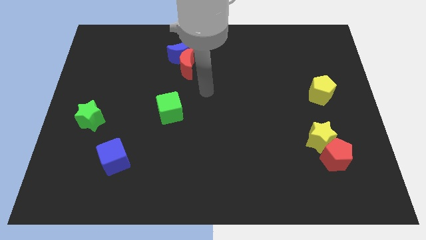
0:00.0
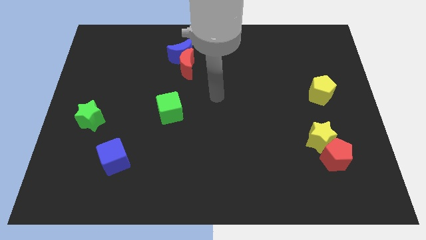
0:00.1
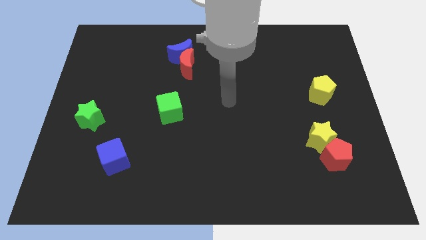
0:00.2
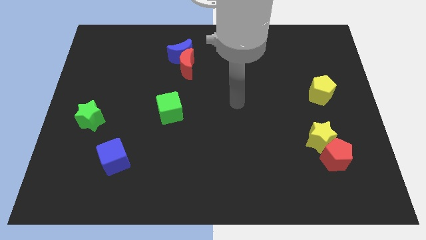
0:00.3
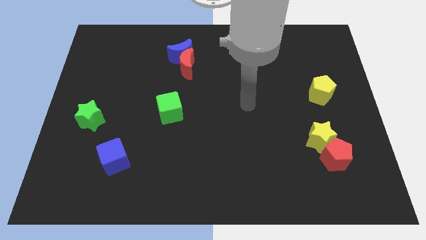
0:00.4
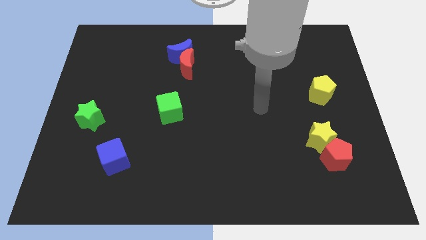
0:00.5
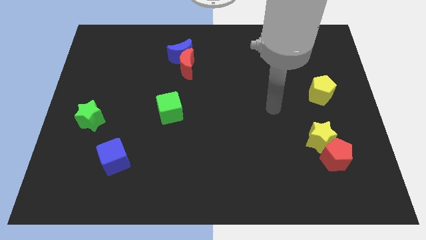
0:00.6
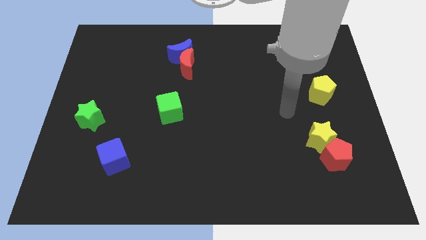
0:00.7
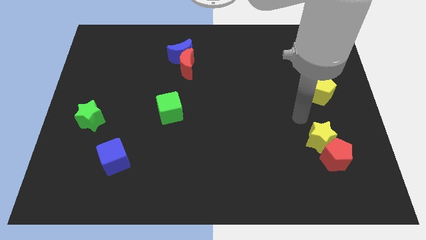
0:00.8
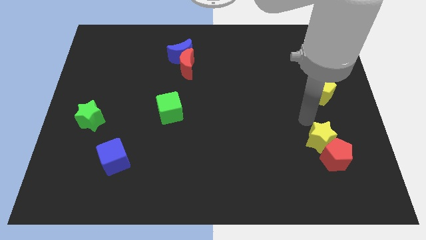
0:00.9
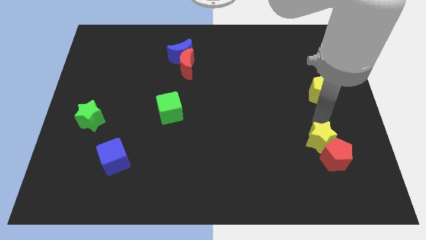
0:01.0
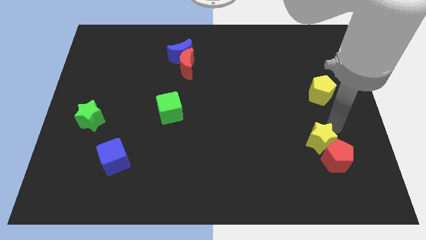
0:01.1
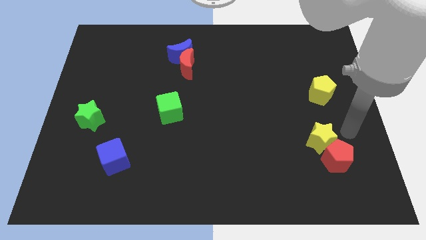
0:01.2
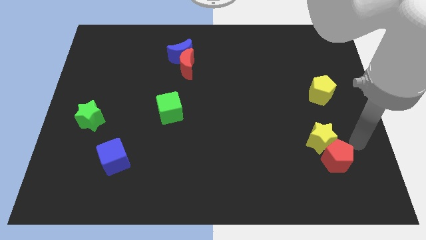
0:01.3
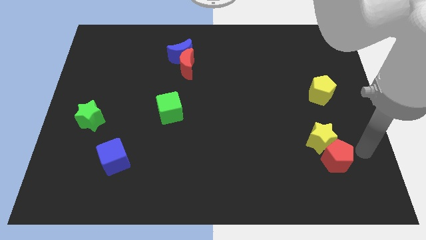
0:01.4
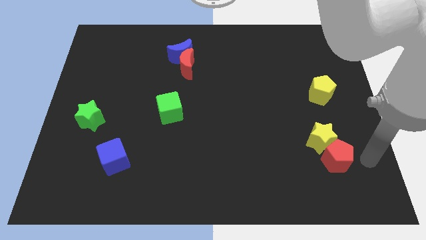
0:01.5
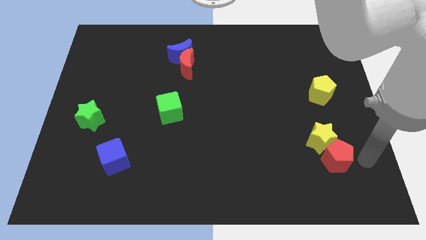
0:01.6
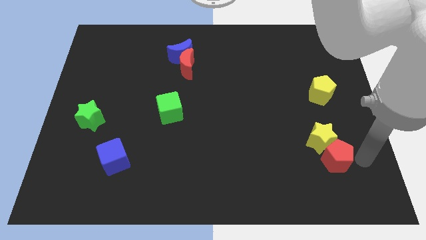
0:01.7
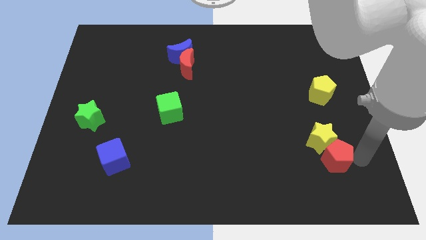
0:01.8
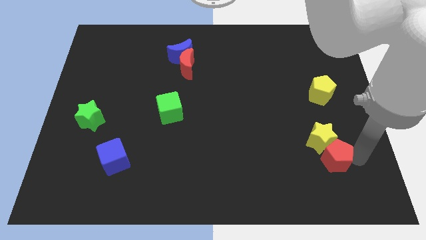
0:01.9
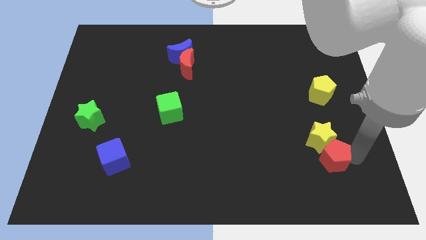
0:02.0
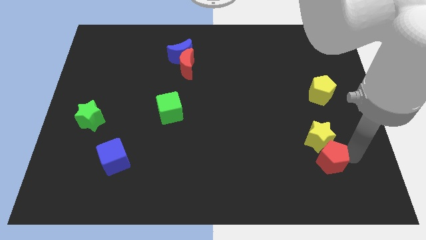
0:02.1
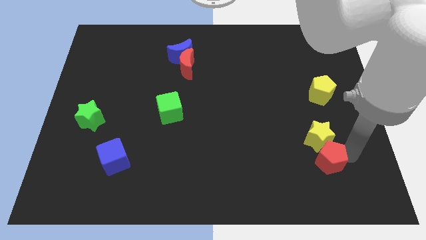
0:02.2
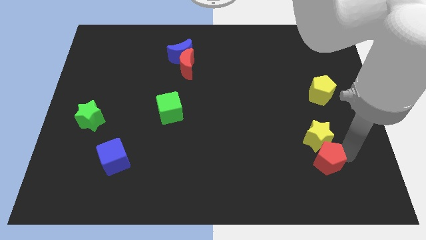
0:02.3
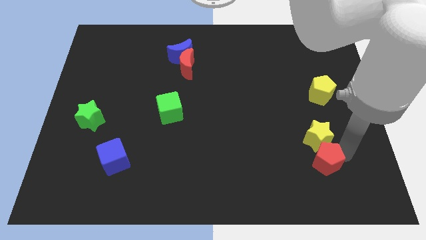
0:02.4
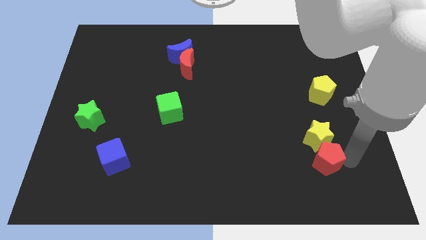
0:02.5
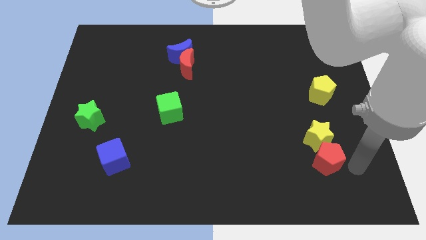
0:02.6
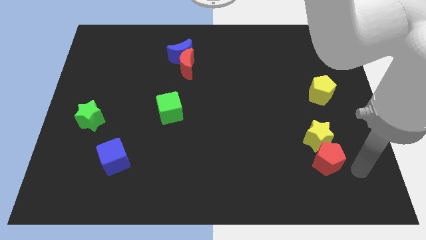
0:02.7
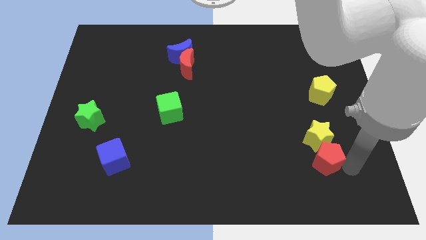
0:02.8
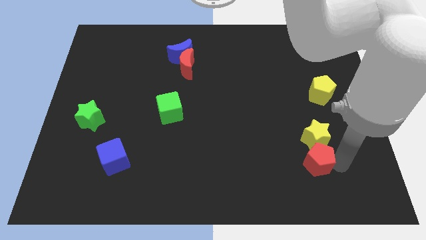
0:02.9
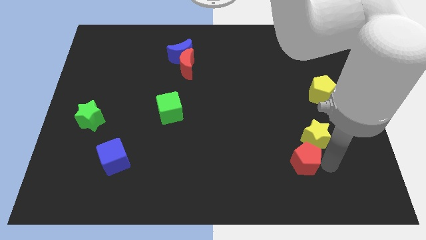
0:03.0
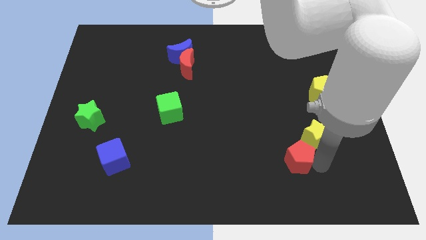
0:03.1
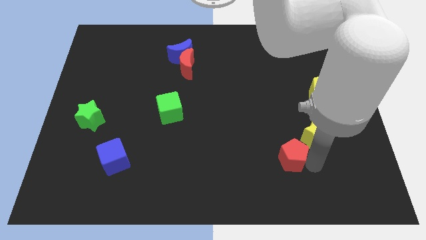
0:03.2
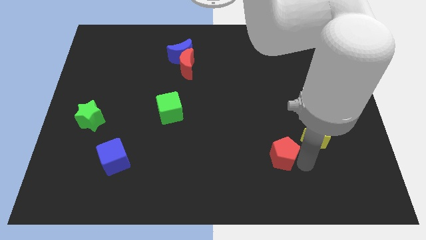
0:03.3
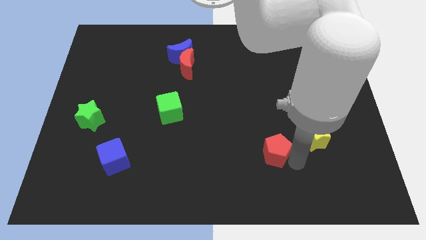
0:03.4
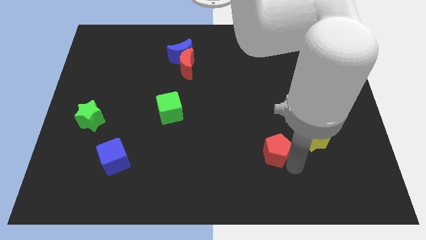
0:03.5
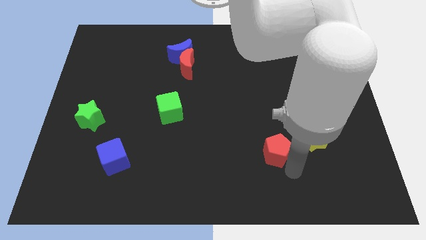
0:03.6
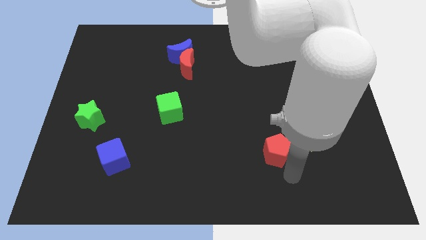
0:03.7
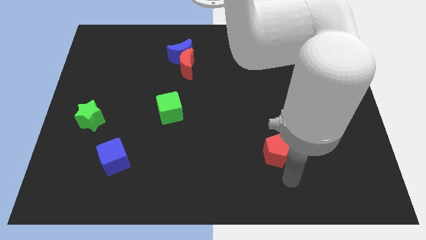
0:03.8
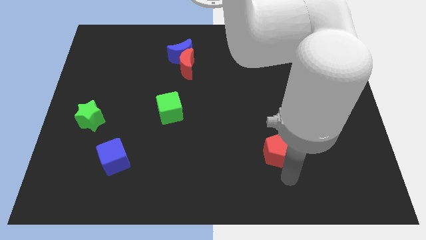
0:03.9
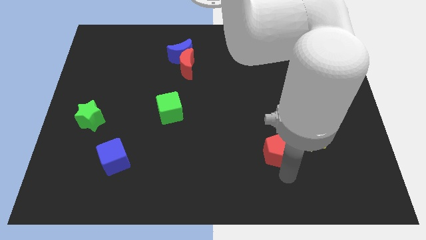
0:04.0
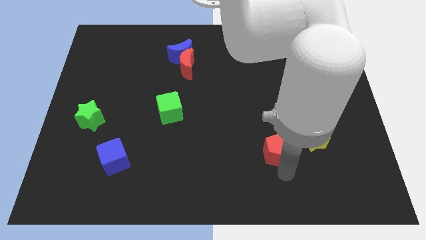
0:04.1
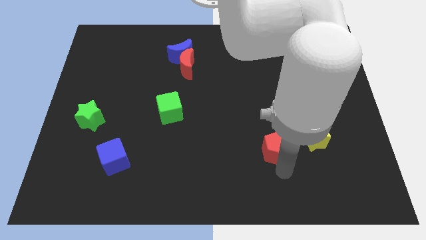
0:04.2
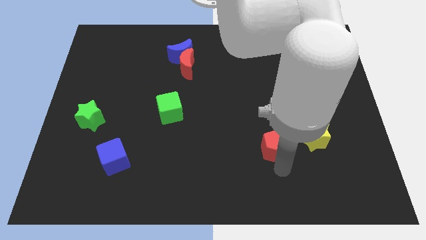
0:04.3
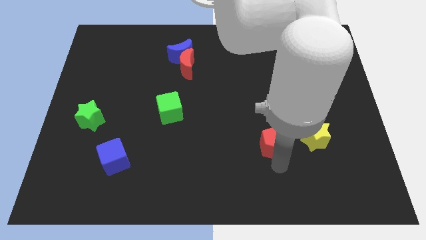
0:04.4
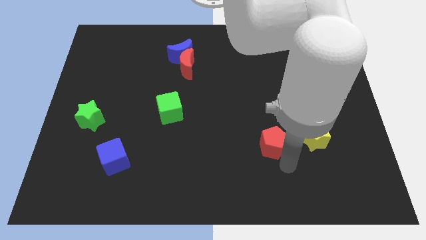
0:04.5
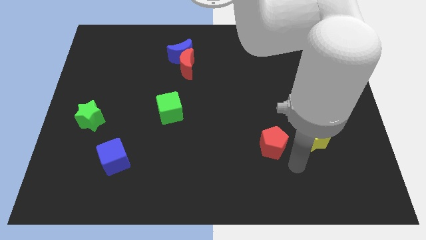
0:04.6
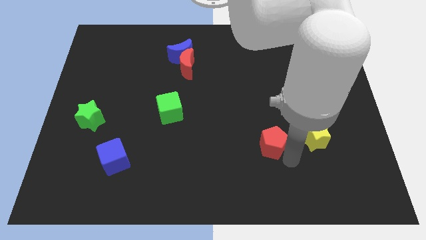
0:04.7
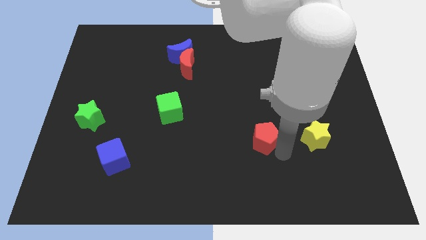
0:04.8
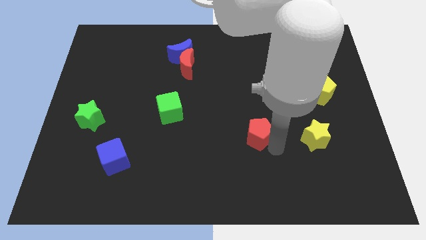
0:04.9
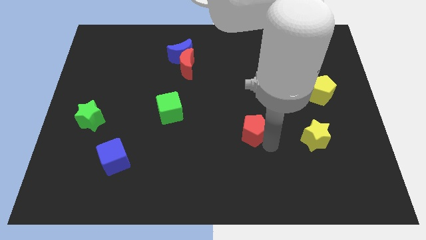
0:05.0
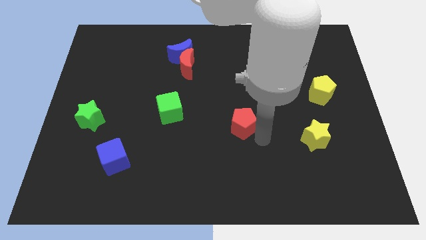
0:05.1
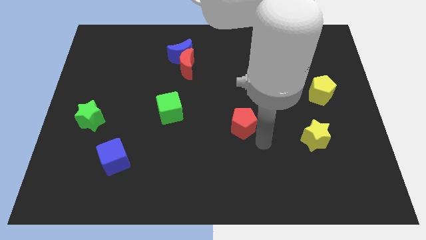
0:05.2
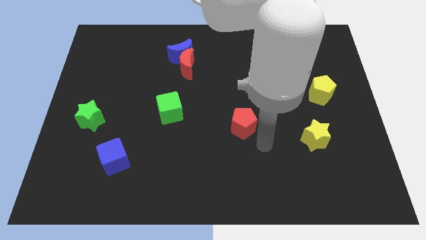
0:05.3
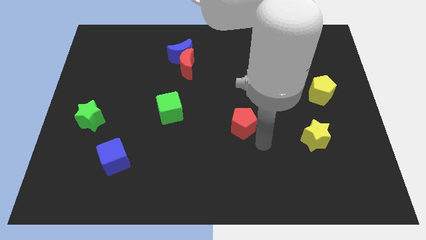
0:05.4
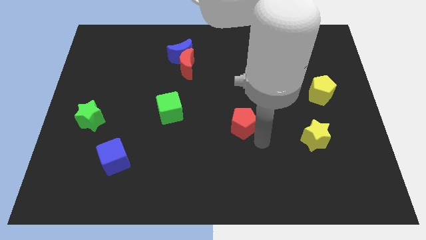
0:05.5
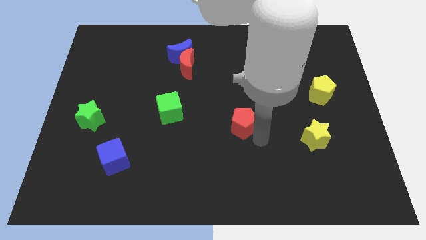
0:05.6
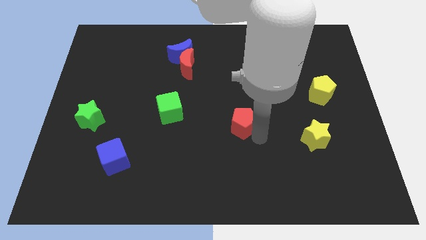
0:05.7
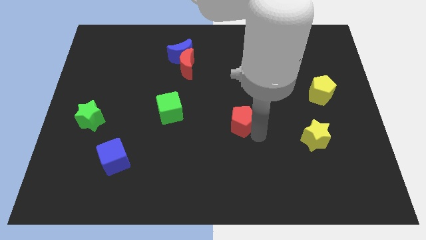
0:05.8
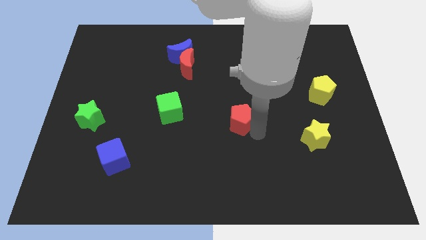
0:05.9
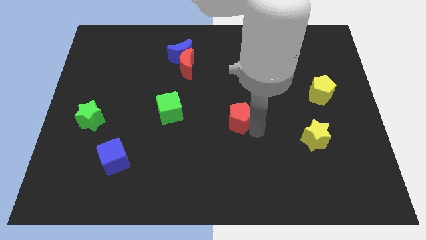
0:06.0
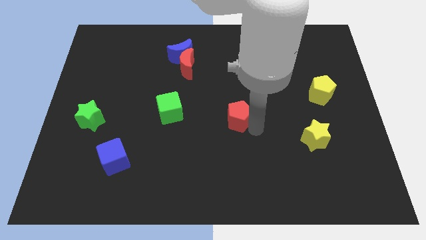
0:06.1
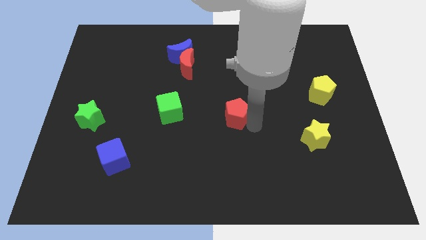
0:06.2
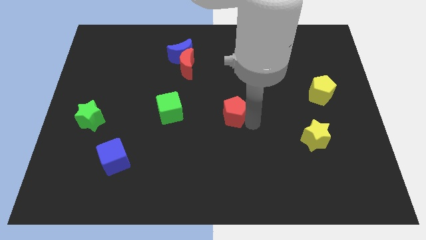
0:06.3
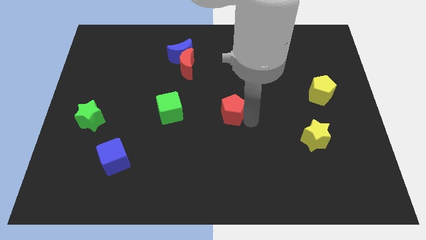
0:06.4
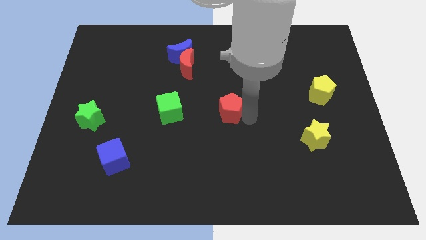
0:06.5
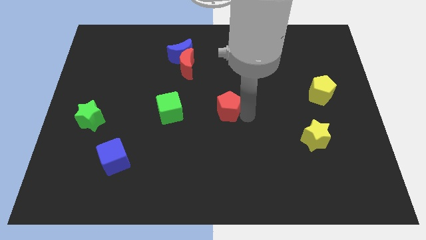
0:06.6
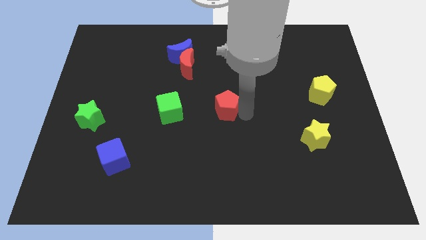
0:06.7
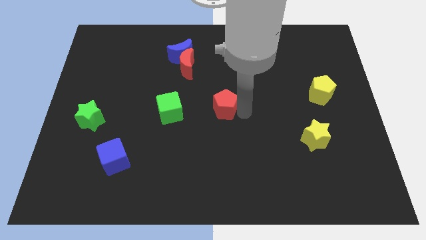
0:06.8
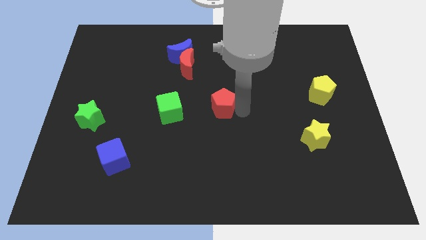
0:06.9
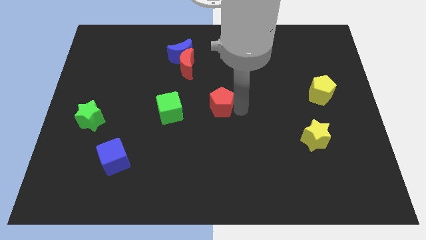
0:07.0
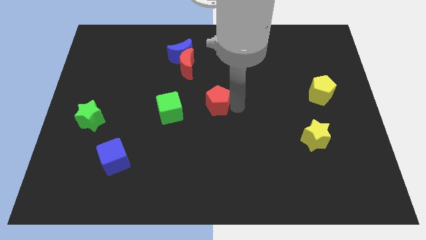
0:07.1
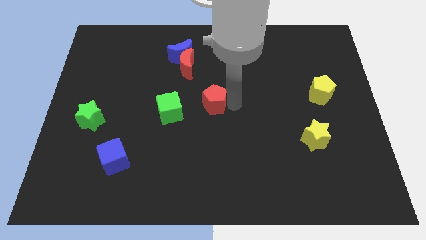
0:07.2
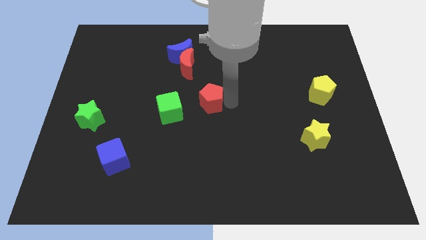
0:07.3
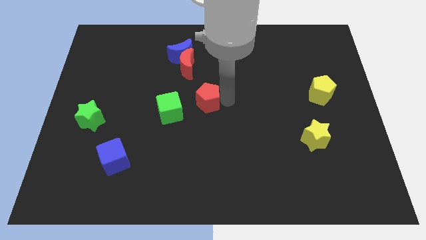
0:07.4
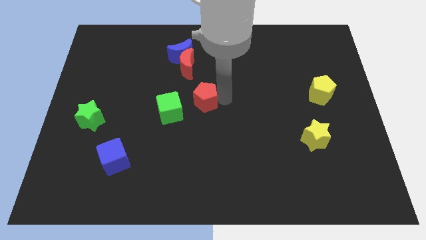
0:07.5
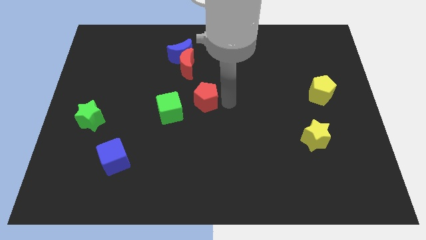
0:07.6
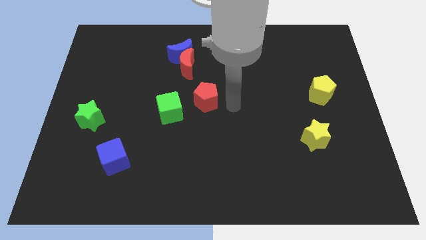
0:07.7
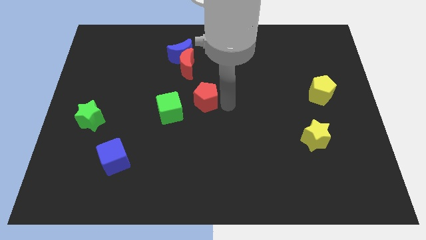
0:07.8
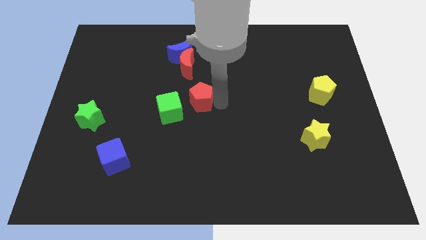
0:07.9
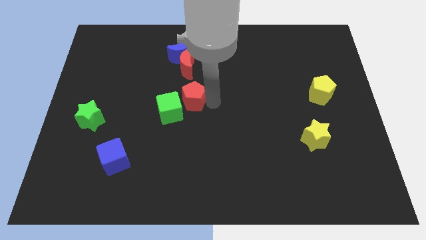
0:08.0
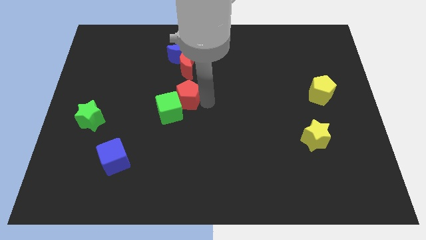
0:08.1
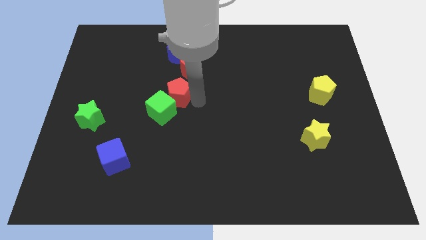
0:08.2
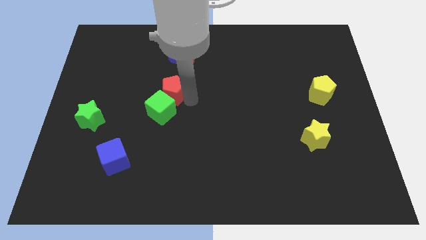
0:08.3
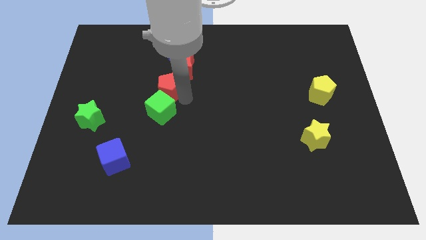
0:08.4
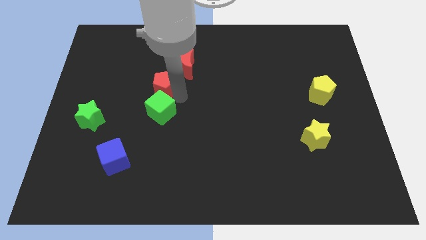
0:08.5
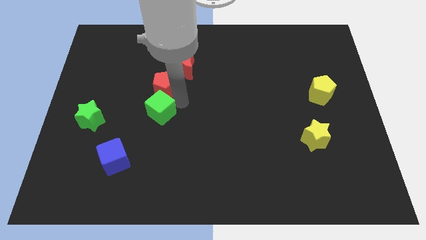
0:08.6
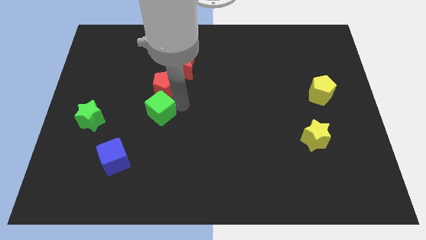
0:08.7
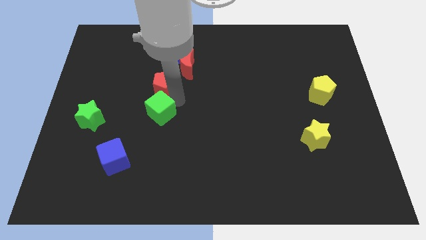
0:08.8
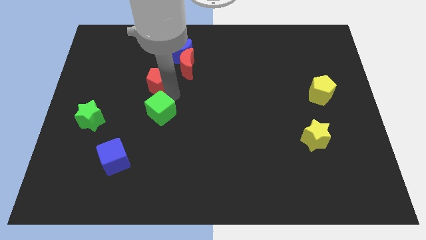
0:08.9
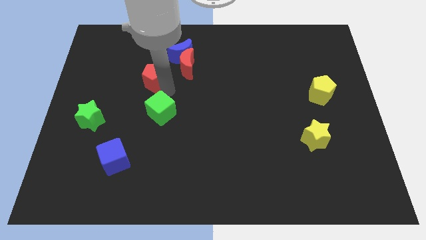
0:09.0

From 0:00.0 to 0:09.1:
move the red pentagon to the left side of the red moon
